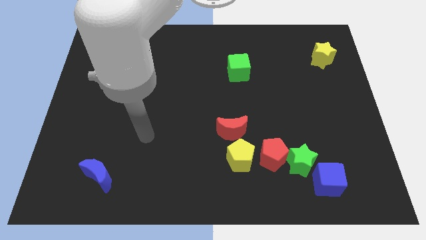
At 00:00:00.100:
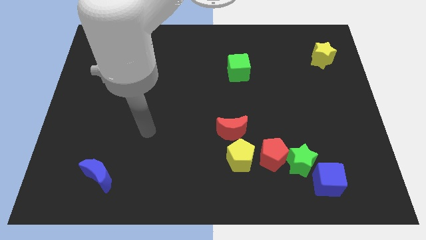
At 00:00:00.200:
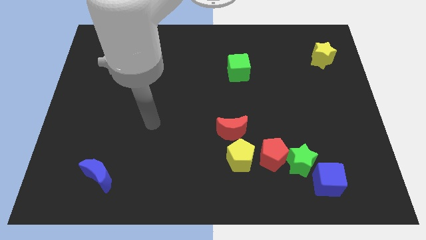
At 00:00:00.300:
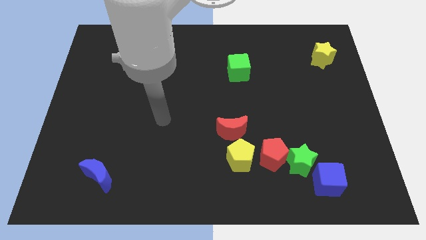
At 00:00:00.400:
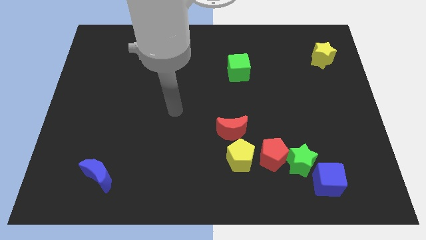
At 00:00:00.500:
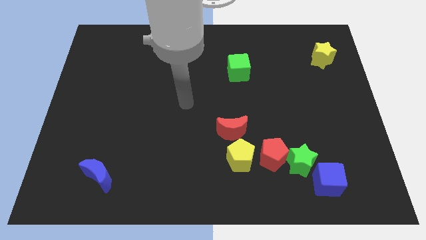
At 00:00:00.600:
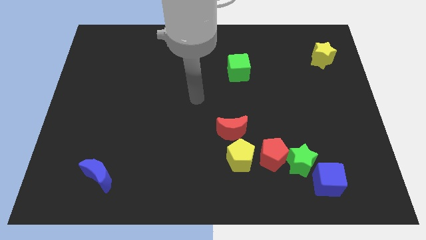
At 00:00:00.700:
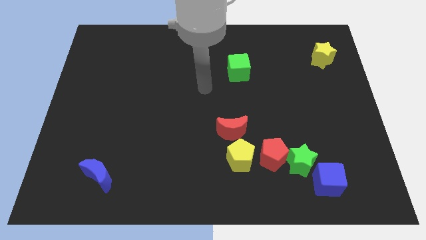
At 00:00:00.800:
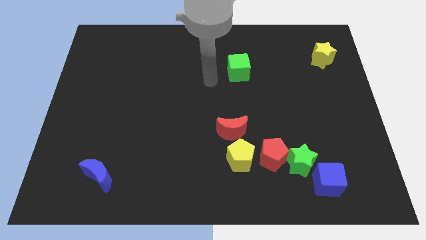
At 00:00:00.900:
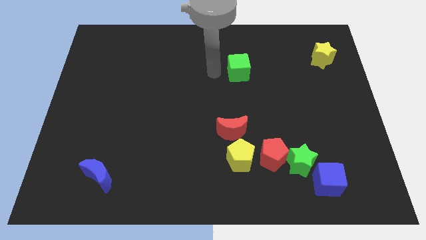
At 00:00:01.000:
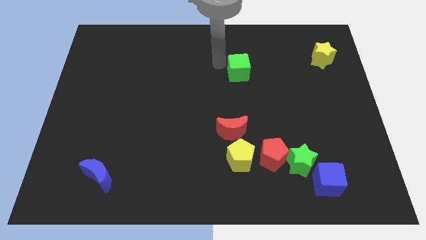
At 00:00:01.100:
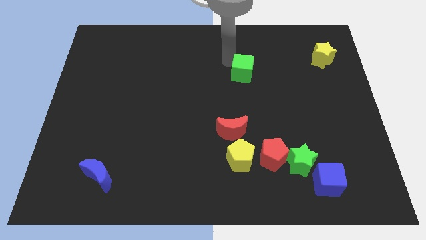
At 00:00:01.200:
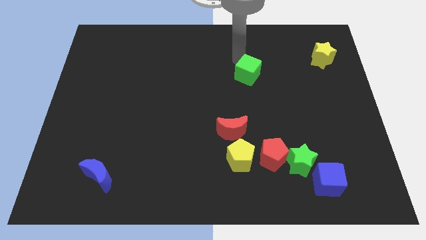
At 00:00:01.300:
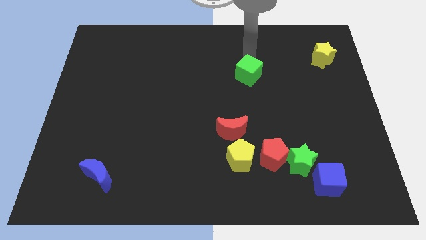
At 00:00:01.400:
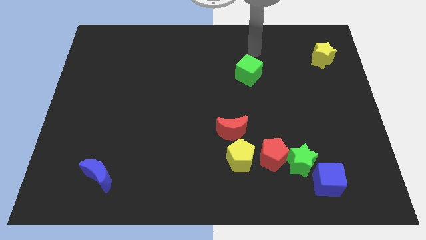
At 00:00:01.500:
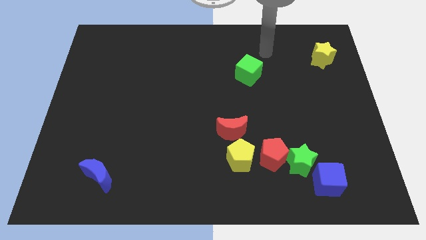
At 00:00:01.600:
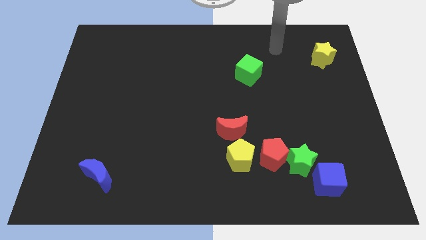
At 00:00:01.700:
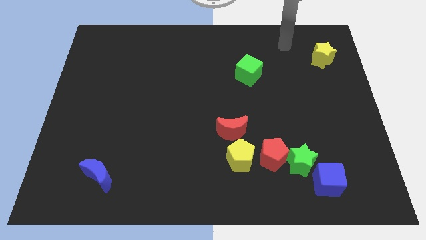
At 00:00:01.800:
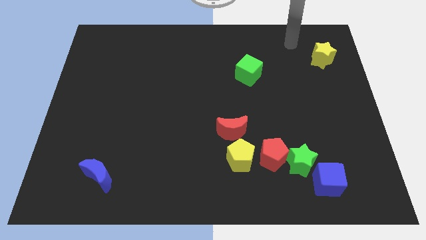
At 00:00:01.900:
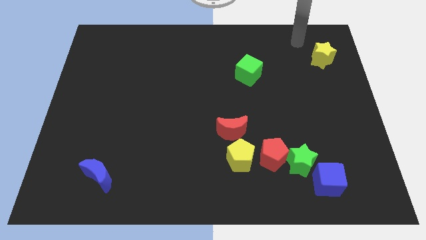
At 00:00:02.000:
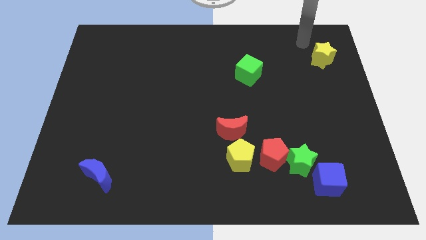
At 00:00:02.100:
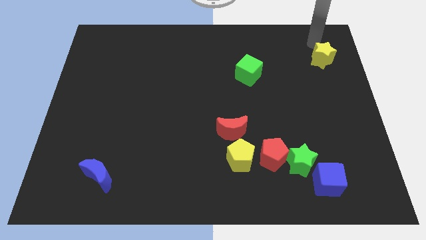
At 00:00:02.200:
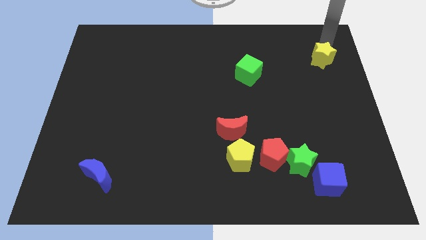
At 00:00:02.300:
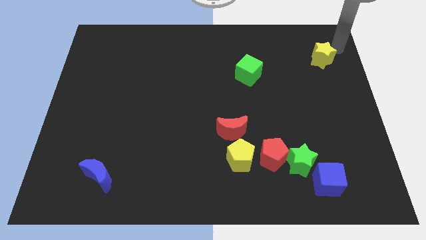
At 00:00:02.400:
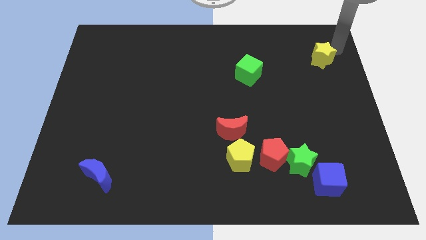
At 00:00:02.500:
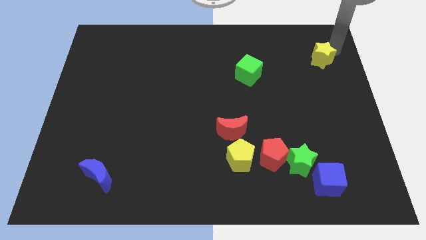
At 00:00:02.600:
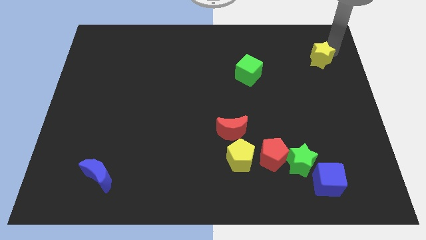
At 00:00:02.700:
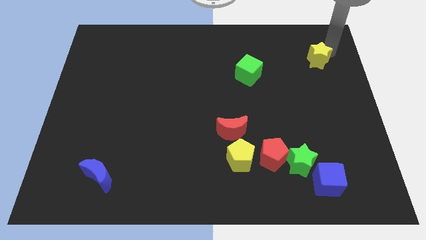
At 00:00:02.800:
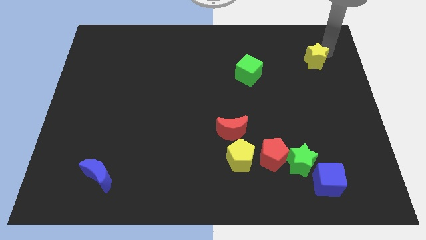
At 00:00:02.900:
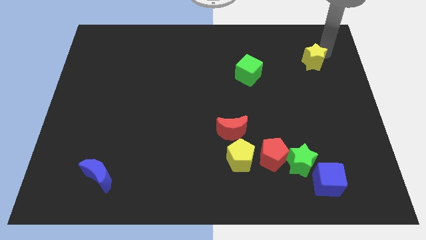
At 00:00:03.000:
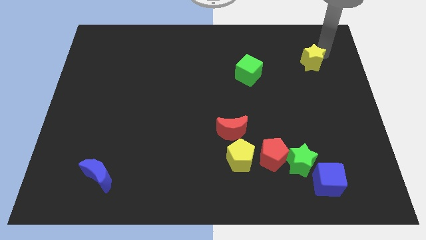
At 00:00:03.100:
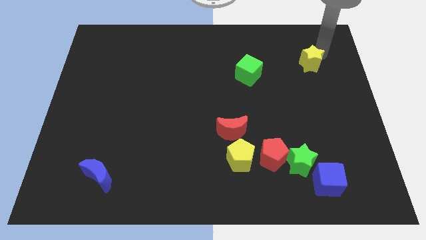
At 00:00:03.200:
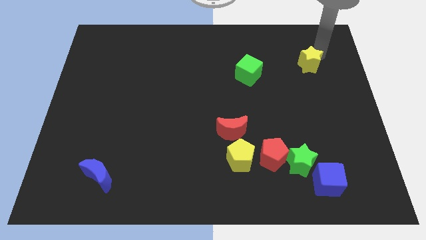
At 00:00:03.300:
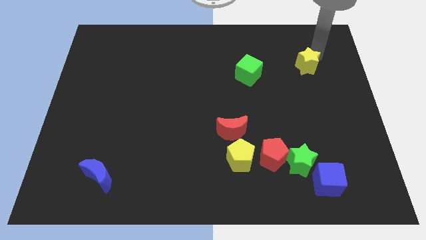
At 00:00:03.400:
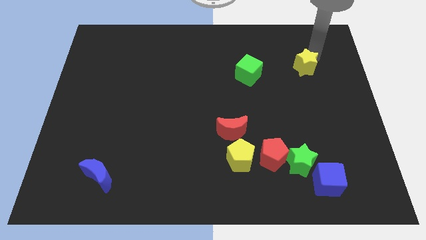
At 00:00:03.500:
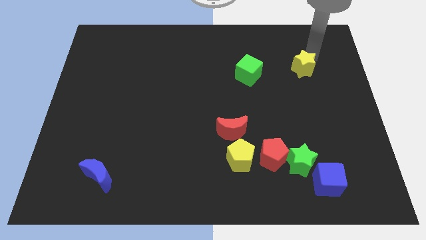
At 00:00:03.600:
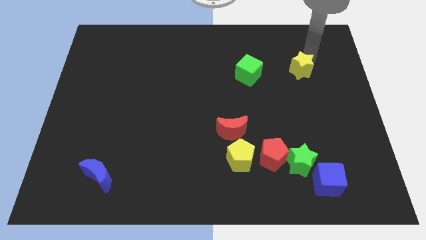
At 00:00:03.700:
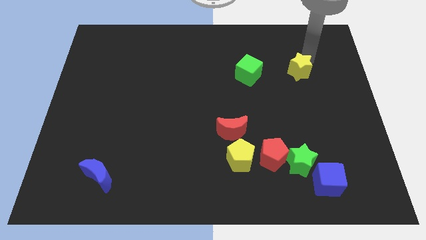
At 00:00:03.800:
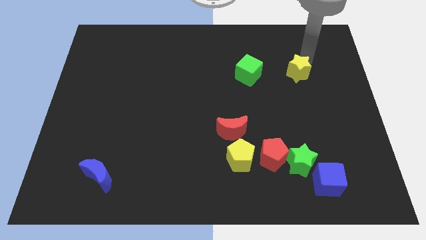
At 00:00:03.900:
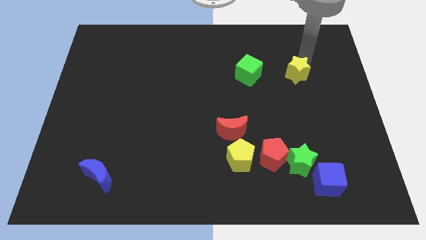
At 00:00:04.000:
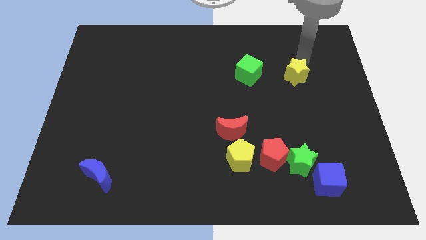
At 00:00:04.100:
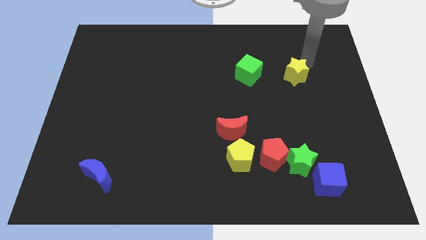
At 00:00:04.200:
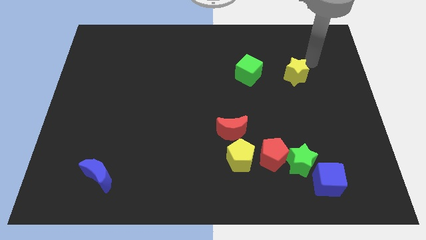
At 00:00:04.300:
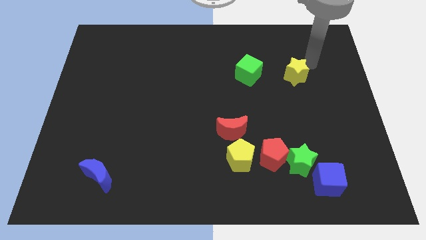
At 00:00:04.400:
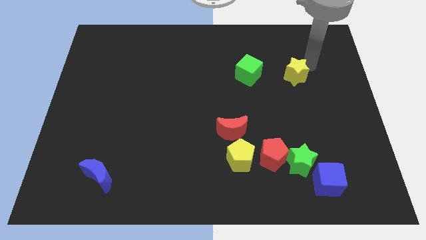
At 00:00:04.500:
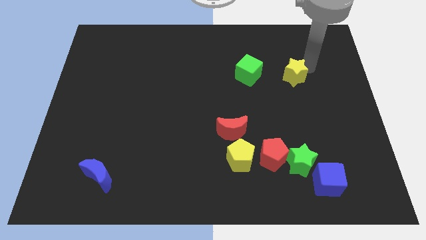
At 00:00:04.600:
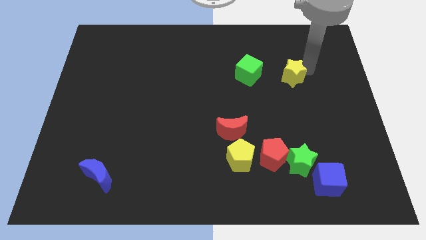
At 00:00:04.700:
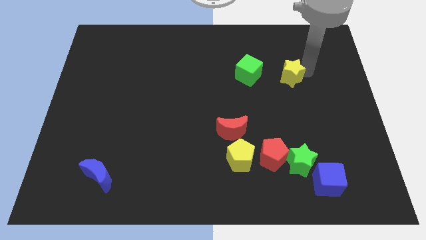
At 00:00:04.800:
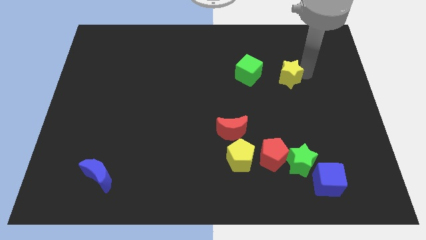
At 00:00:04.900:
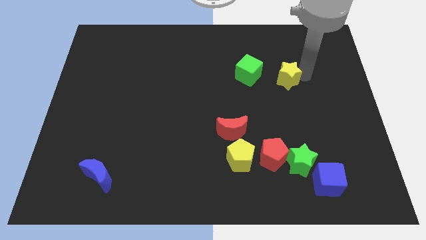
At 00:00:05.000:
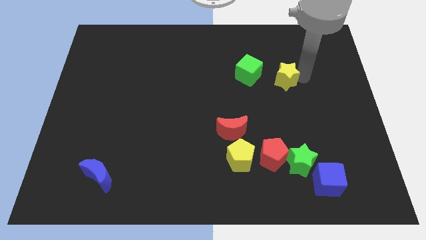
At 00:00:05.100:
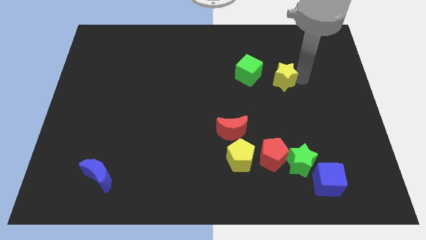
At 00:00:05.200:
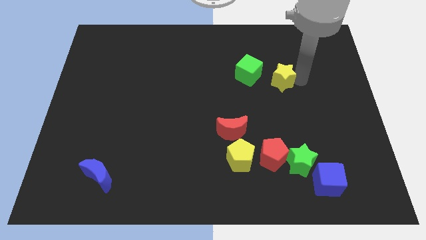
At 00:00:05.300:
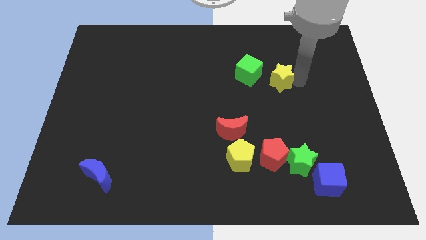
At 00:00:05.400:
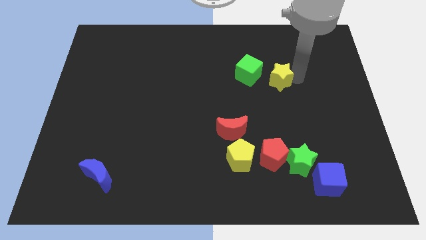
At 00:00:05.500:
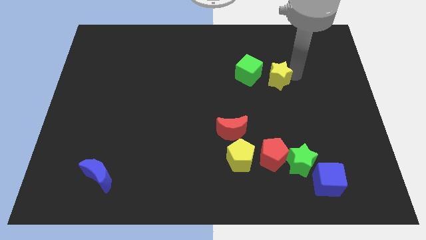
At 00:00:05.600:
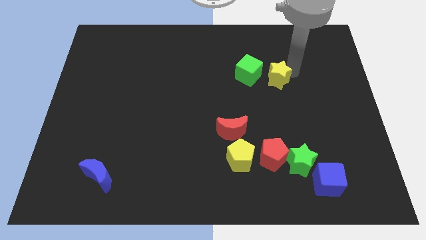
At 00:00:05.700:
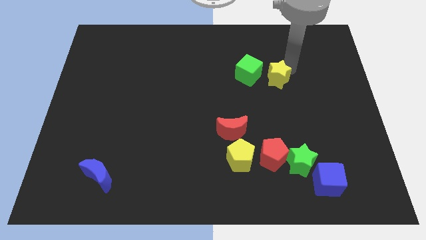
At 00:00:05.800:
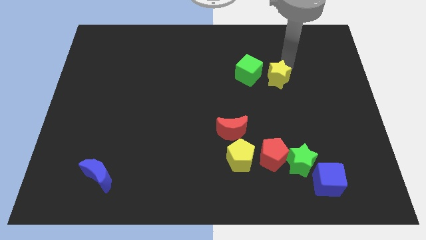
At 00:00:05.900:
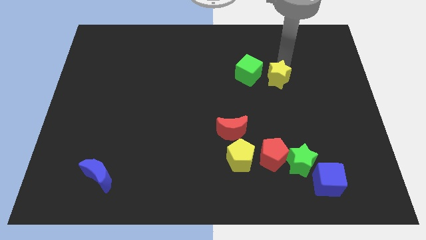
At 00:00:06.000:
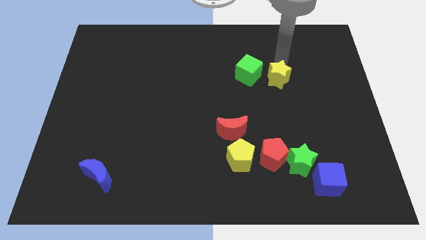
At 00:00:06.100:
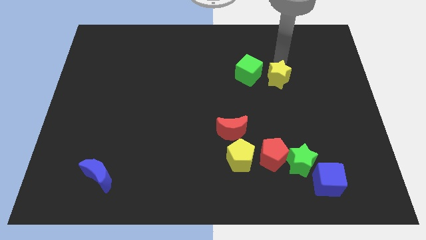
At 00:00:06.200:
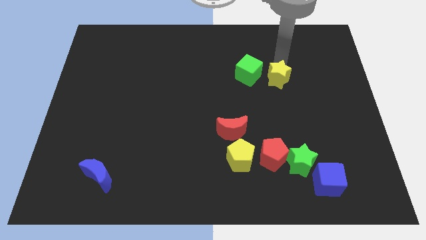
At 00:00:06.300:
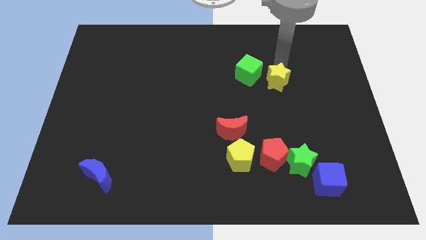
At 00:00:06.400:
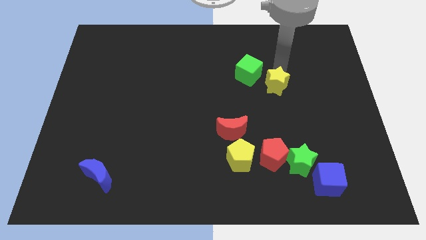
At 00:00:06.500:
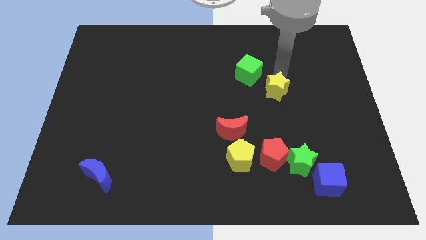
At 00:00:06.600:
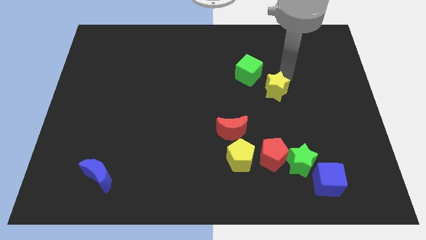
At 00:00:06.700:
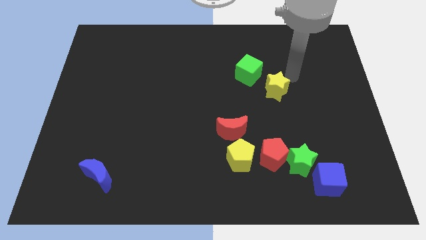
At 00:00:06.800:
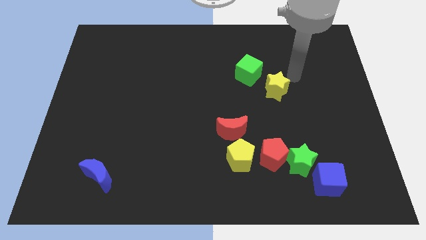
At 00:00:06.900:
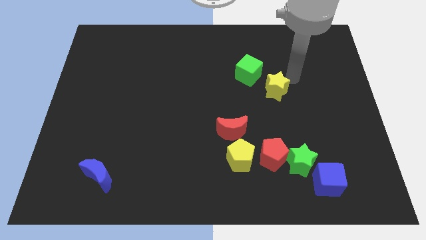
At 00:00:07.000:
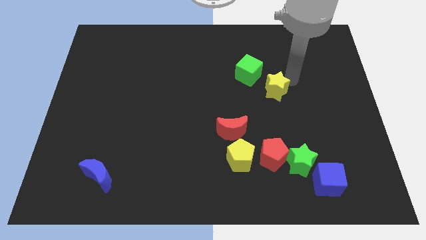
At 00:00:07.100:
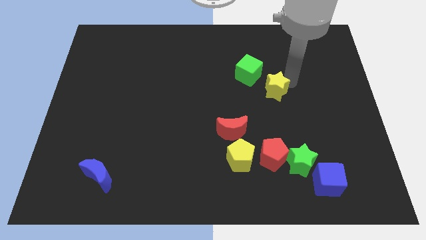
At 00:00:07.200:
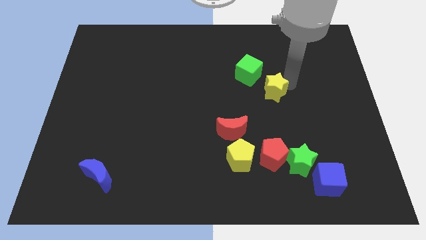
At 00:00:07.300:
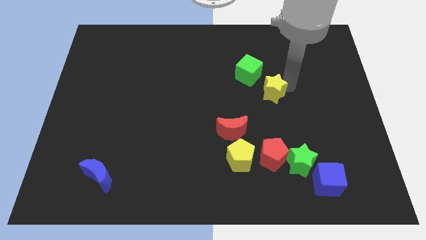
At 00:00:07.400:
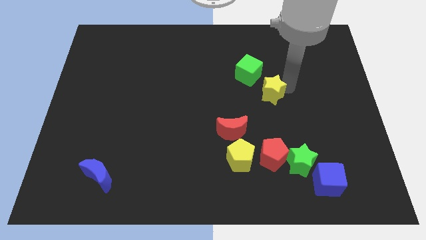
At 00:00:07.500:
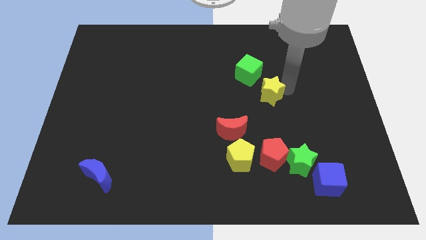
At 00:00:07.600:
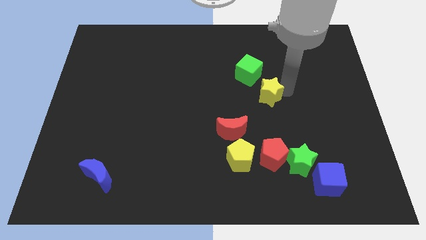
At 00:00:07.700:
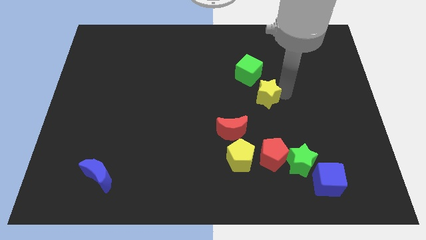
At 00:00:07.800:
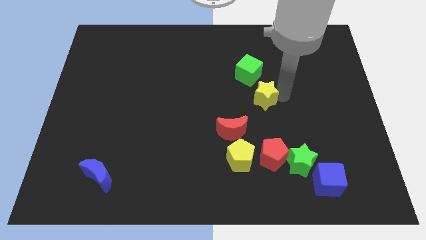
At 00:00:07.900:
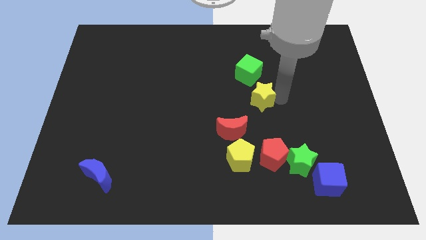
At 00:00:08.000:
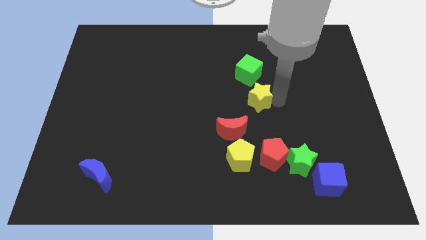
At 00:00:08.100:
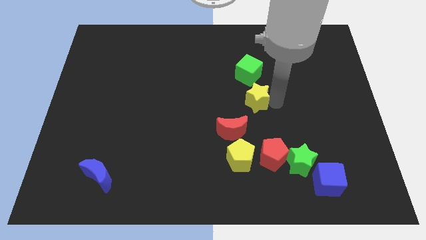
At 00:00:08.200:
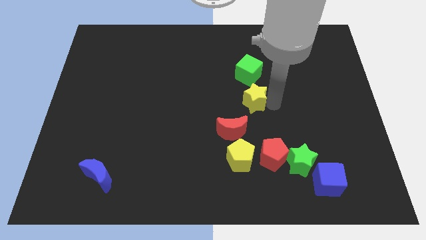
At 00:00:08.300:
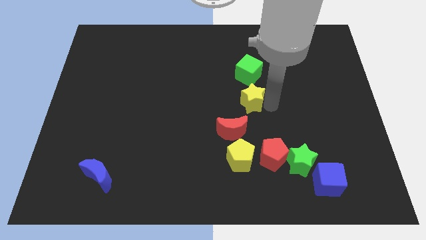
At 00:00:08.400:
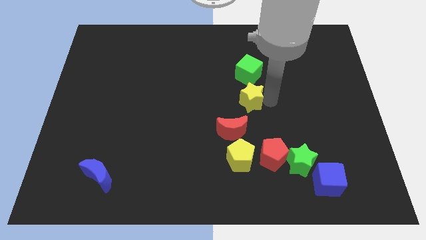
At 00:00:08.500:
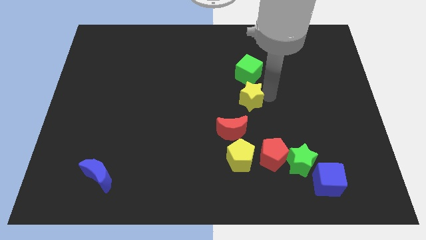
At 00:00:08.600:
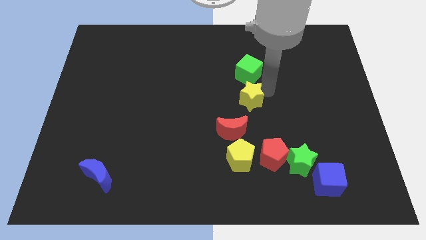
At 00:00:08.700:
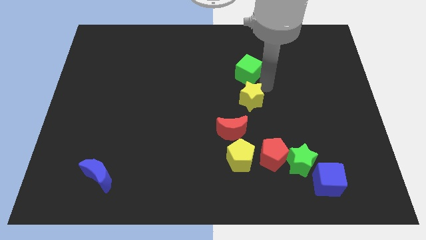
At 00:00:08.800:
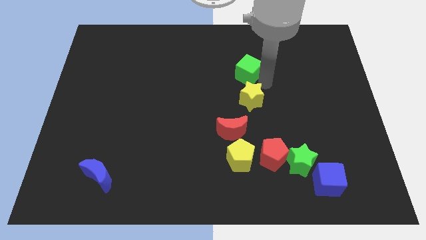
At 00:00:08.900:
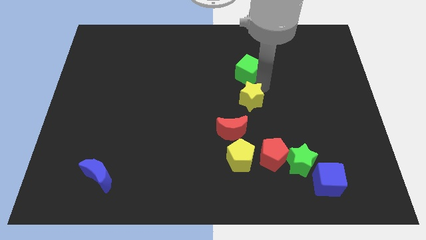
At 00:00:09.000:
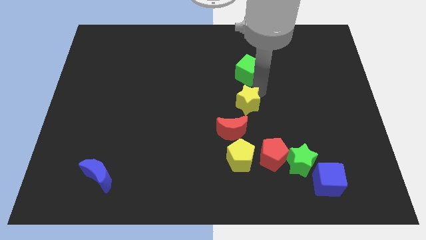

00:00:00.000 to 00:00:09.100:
slide the yellow star to the top side of the yellow pentagon
